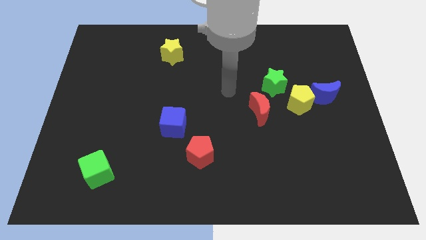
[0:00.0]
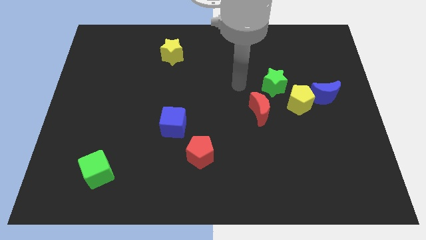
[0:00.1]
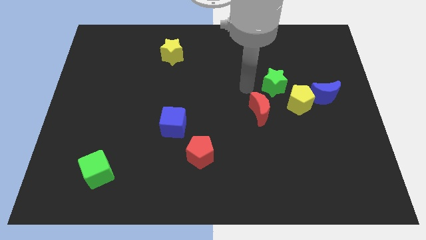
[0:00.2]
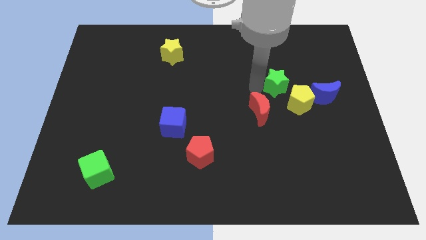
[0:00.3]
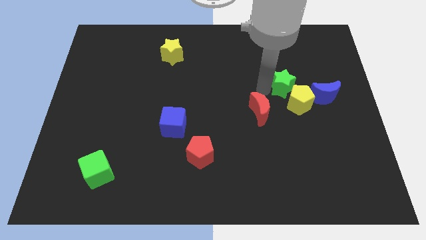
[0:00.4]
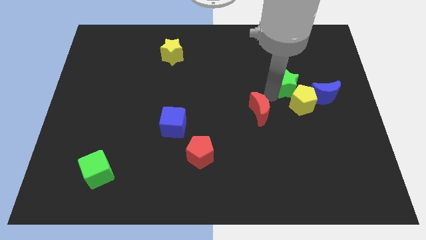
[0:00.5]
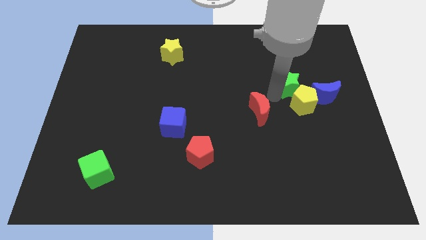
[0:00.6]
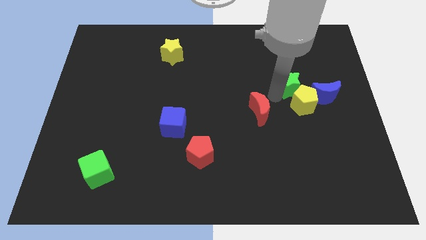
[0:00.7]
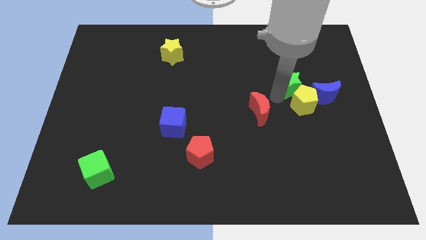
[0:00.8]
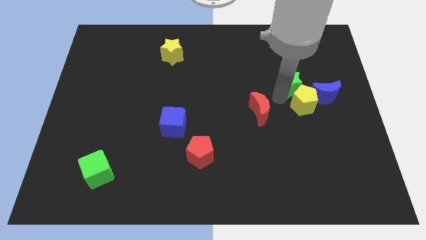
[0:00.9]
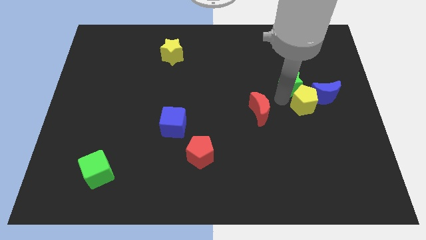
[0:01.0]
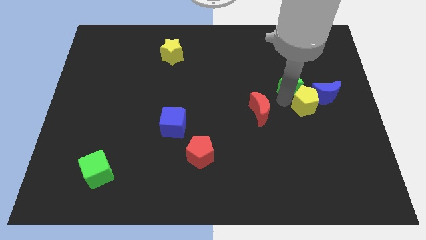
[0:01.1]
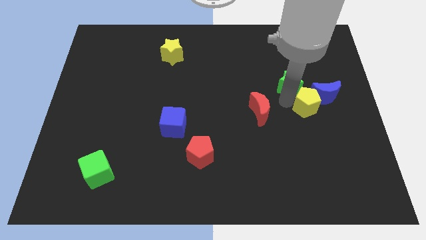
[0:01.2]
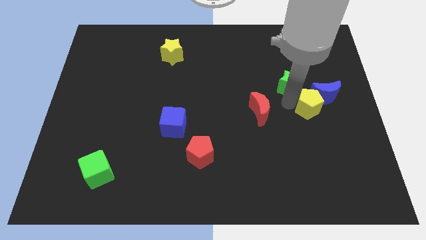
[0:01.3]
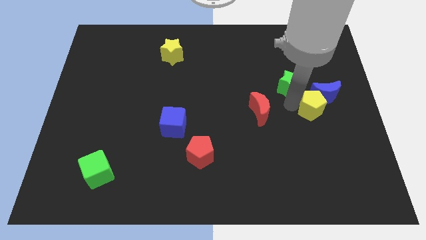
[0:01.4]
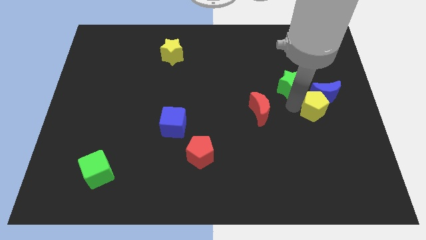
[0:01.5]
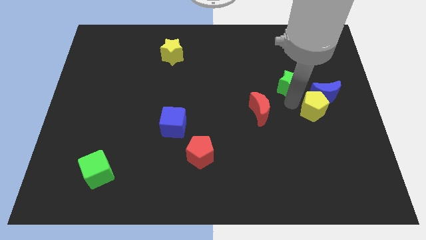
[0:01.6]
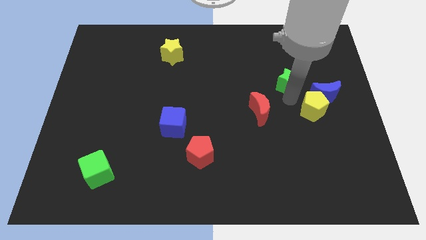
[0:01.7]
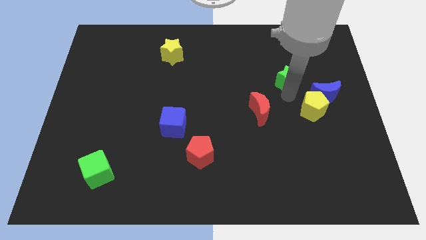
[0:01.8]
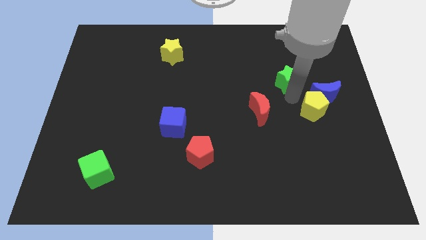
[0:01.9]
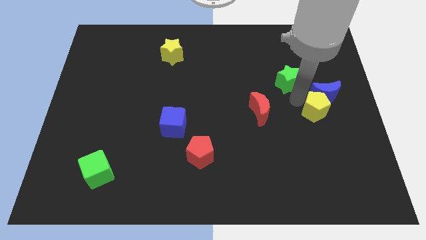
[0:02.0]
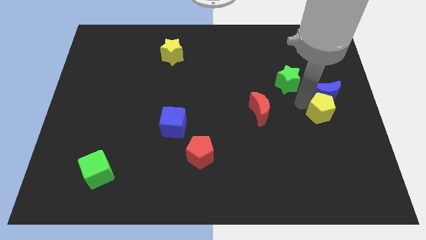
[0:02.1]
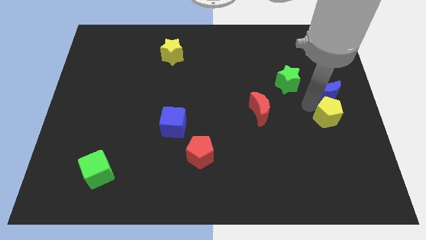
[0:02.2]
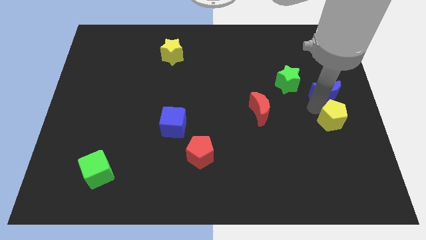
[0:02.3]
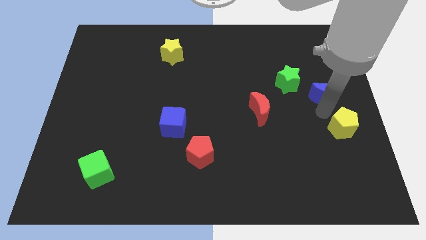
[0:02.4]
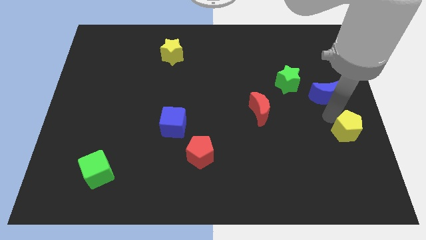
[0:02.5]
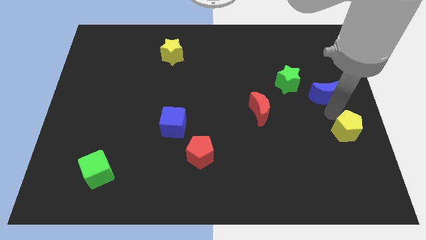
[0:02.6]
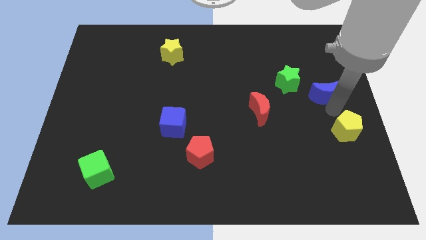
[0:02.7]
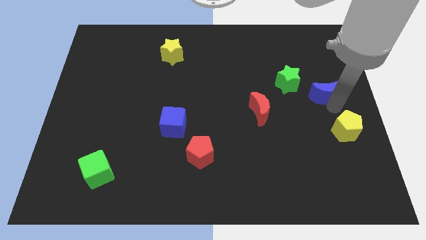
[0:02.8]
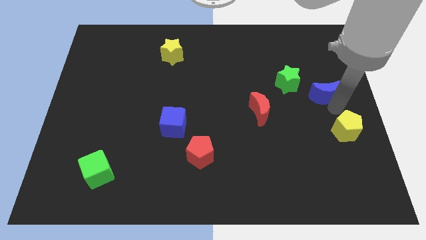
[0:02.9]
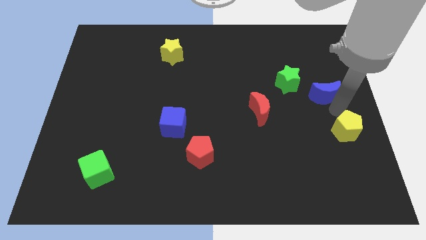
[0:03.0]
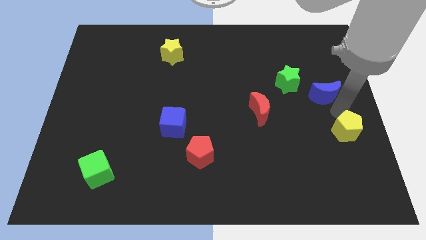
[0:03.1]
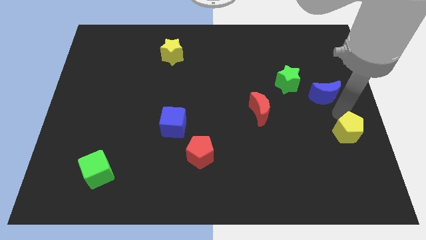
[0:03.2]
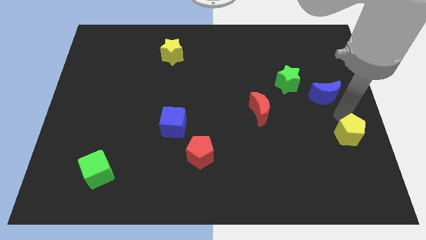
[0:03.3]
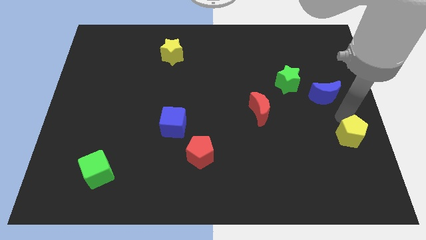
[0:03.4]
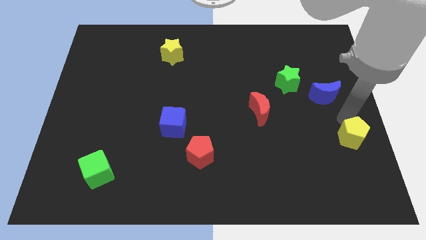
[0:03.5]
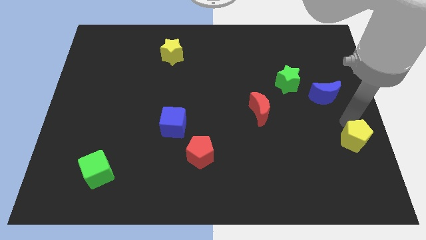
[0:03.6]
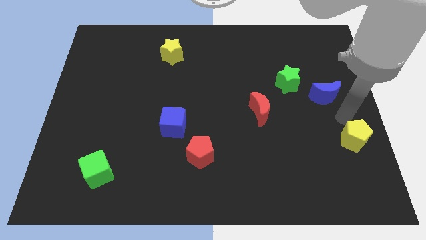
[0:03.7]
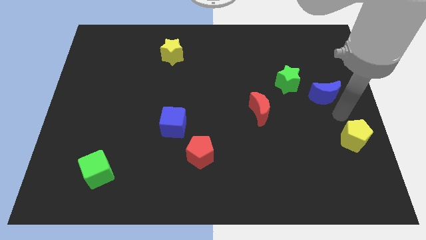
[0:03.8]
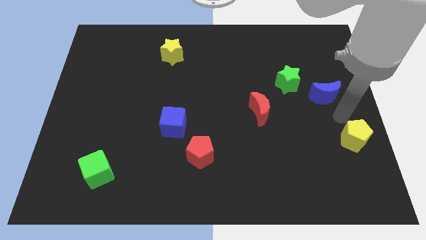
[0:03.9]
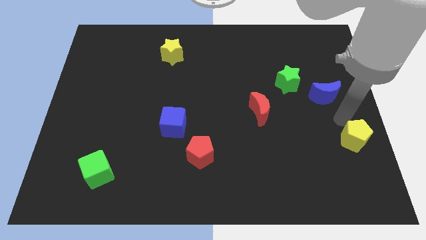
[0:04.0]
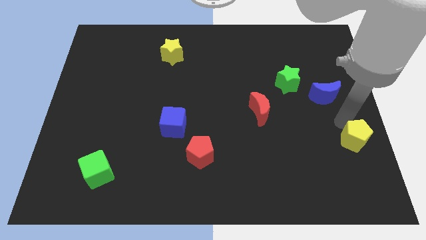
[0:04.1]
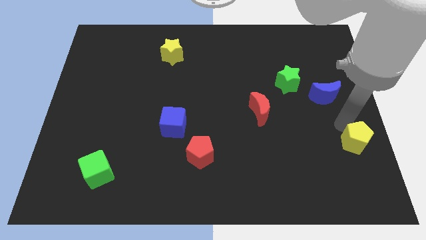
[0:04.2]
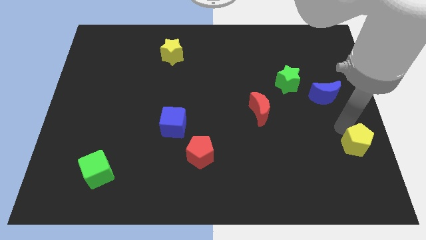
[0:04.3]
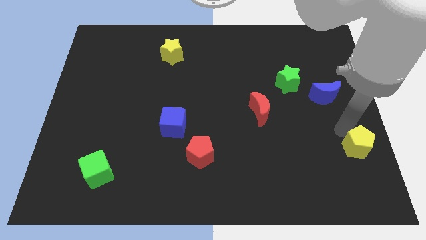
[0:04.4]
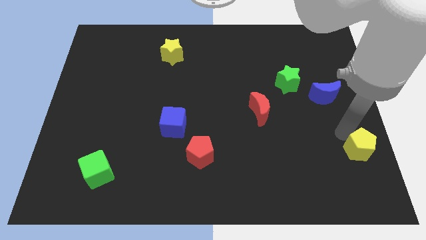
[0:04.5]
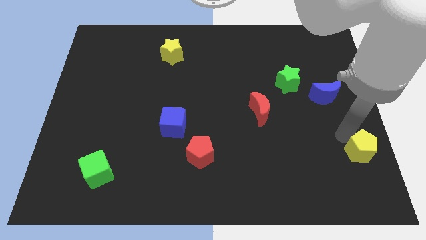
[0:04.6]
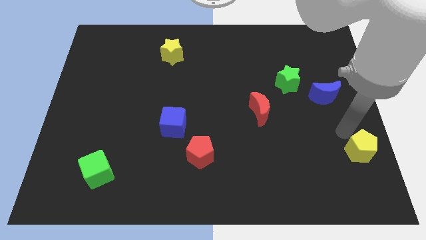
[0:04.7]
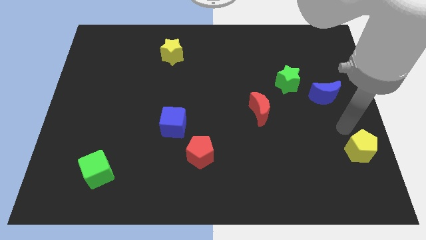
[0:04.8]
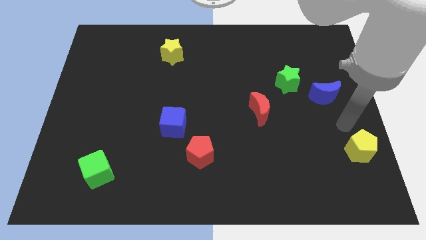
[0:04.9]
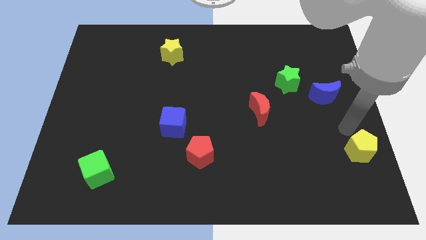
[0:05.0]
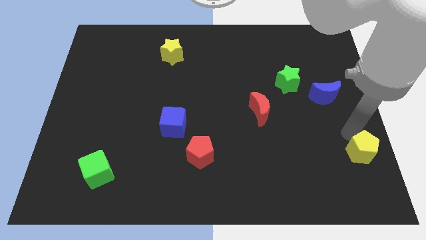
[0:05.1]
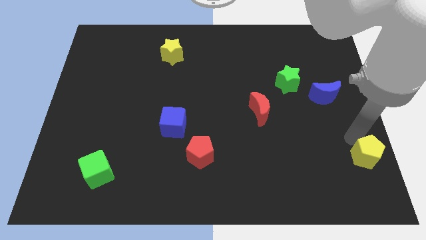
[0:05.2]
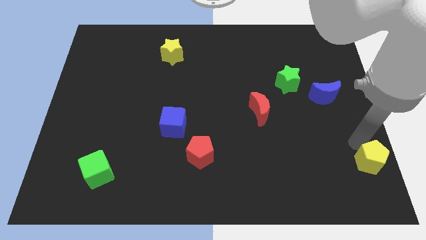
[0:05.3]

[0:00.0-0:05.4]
slide the yellow pentagon to the bottom right

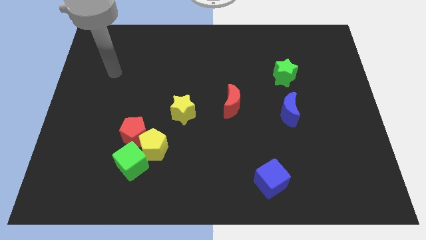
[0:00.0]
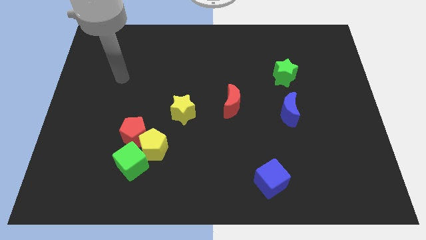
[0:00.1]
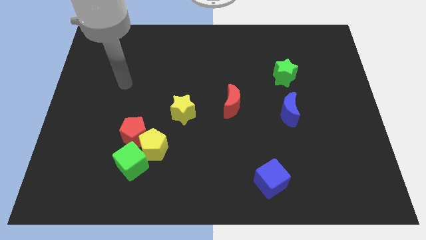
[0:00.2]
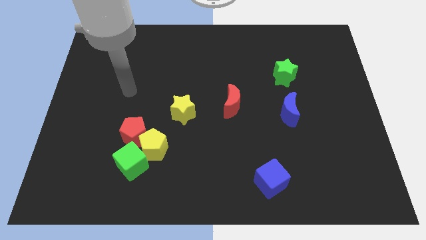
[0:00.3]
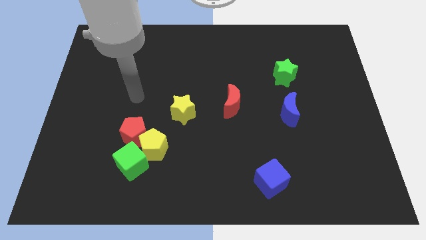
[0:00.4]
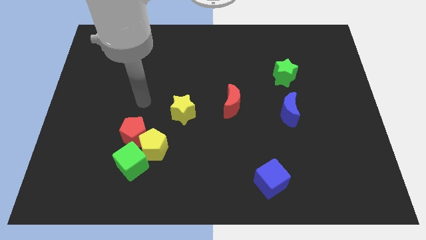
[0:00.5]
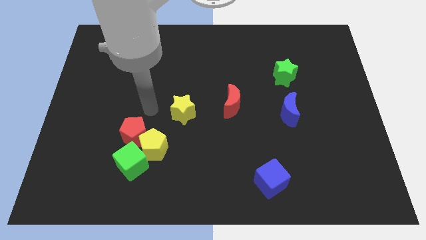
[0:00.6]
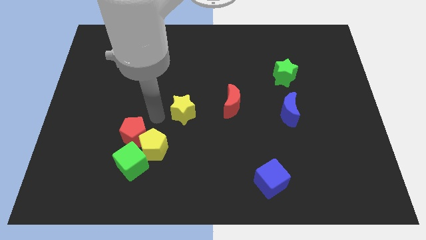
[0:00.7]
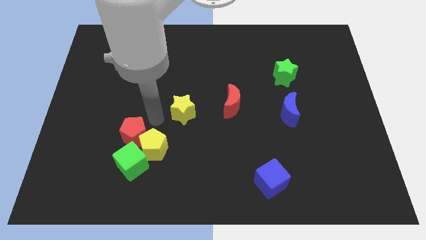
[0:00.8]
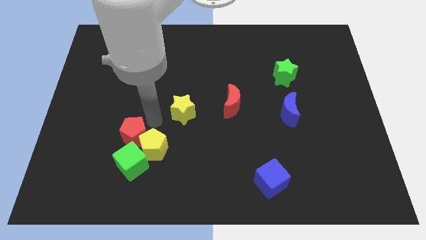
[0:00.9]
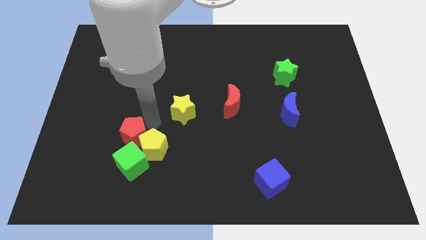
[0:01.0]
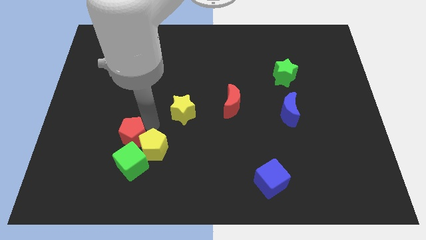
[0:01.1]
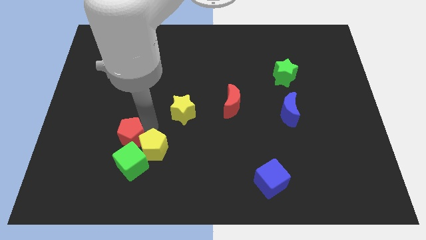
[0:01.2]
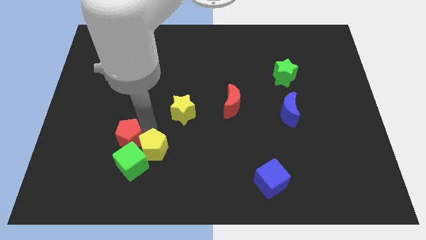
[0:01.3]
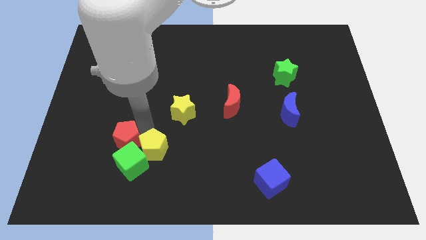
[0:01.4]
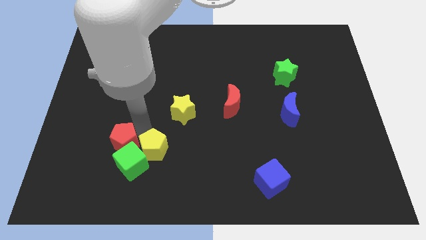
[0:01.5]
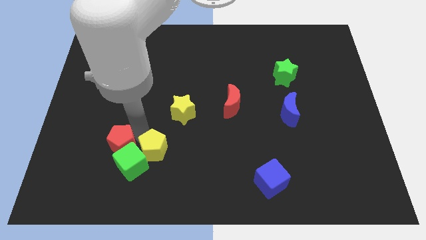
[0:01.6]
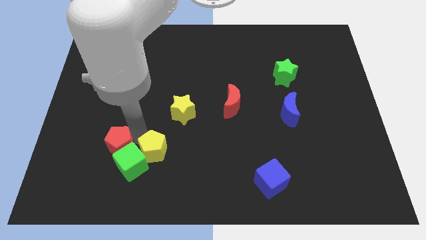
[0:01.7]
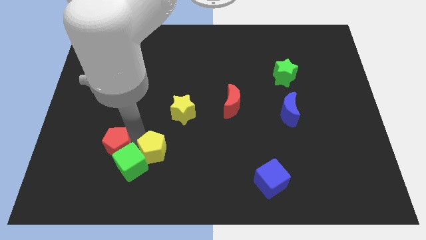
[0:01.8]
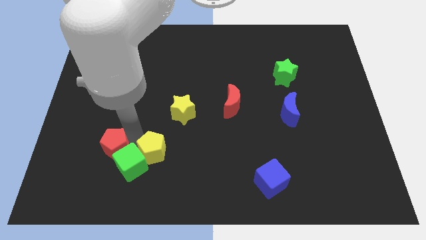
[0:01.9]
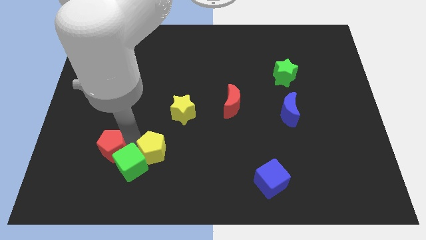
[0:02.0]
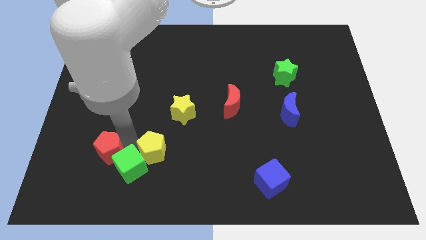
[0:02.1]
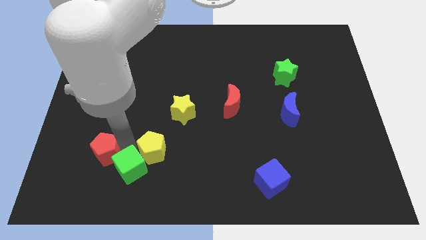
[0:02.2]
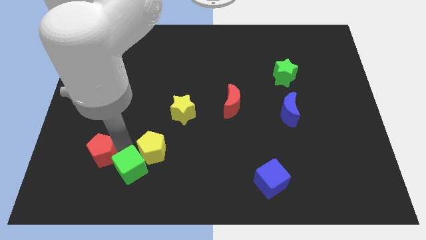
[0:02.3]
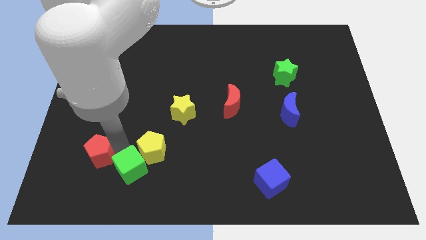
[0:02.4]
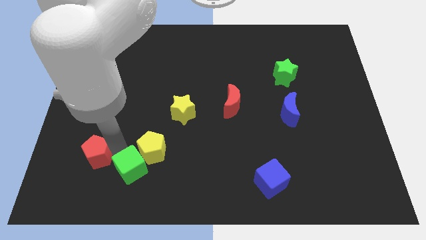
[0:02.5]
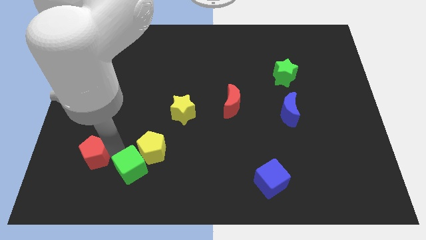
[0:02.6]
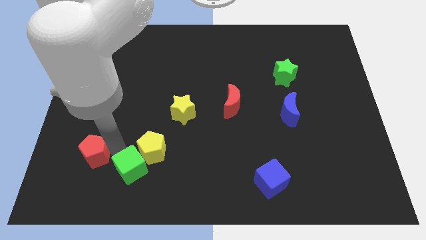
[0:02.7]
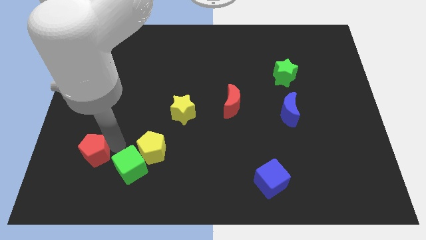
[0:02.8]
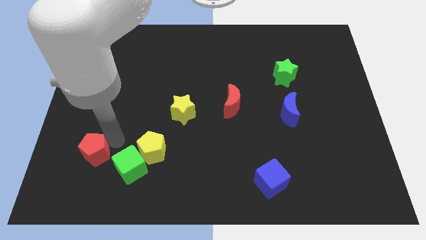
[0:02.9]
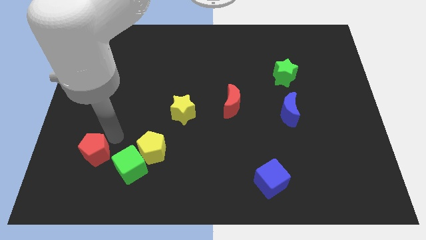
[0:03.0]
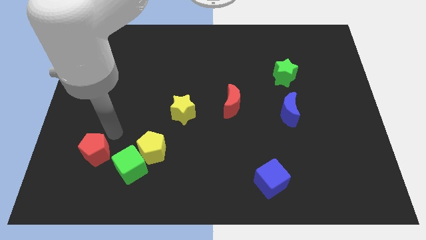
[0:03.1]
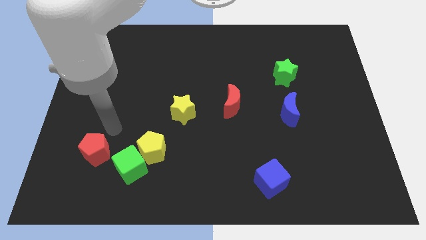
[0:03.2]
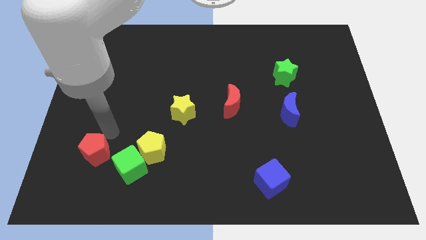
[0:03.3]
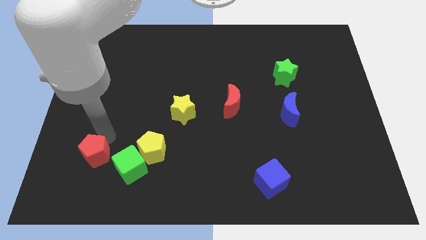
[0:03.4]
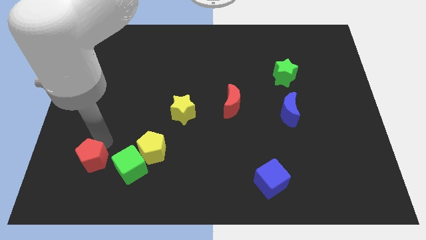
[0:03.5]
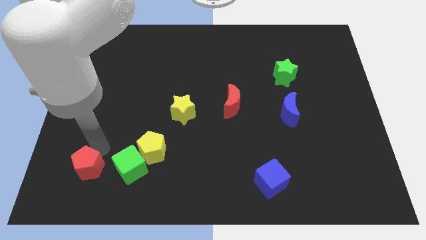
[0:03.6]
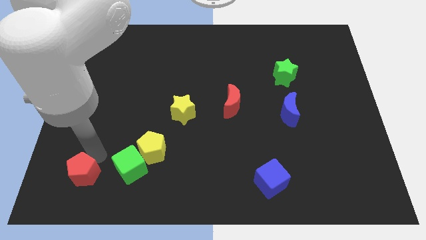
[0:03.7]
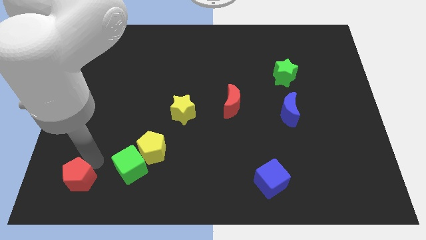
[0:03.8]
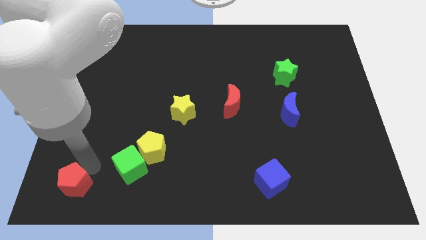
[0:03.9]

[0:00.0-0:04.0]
move the red pentagon to the bottom left
